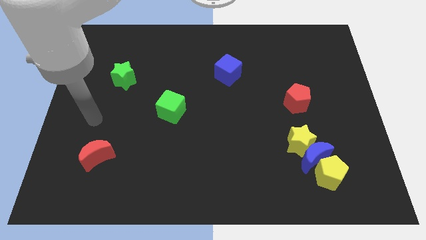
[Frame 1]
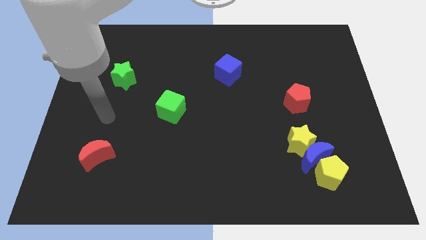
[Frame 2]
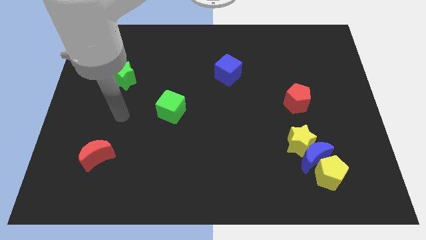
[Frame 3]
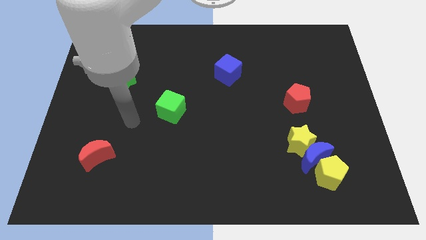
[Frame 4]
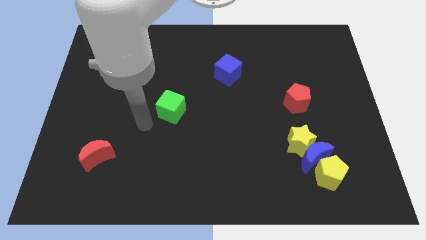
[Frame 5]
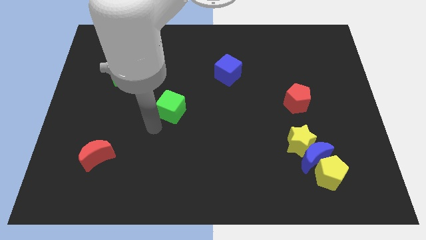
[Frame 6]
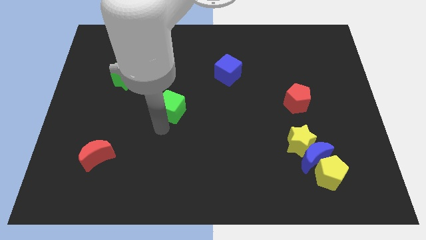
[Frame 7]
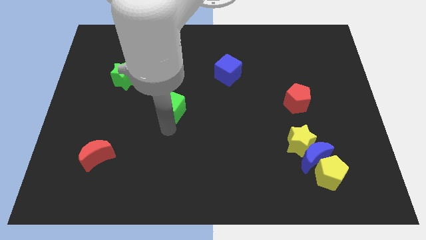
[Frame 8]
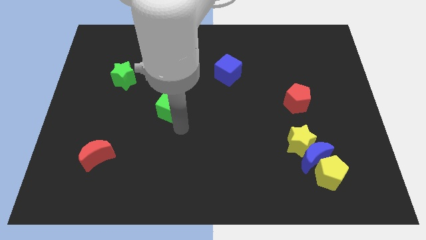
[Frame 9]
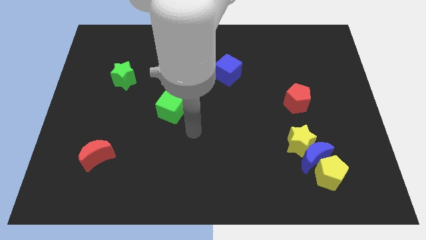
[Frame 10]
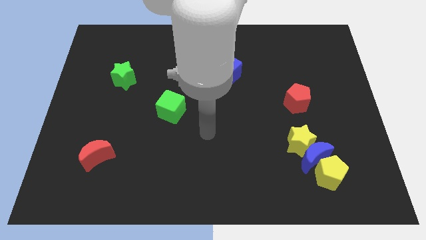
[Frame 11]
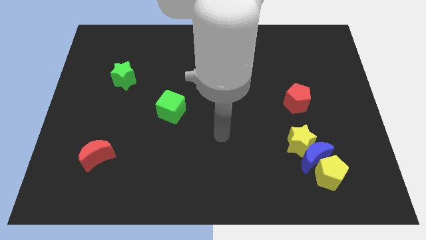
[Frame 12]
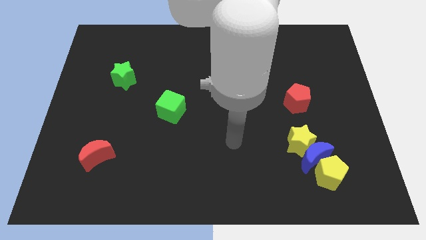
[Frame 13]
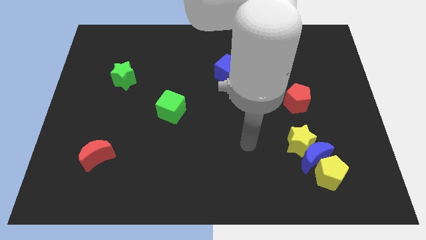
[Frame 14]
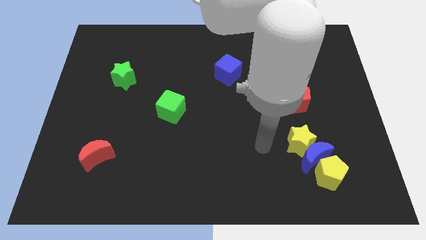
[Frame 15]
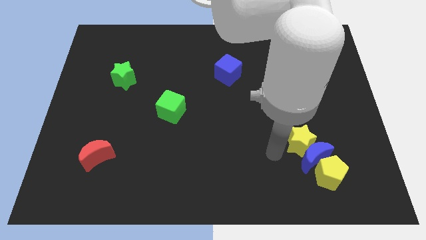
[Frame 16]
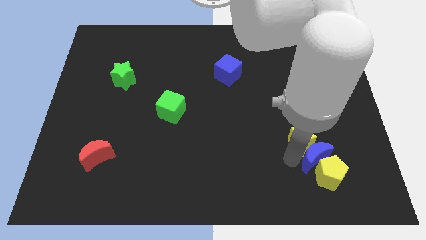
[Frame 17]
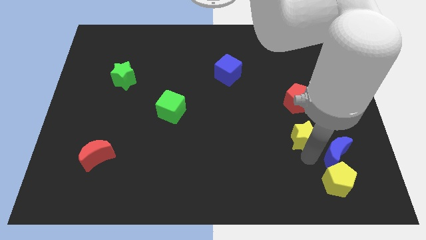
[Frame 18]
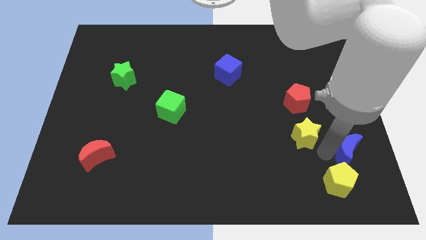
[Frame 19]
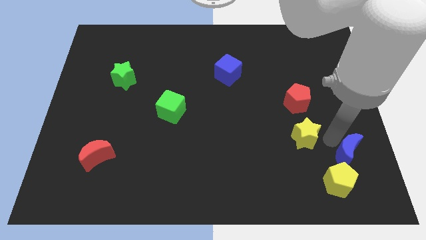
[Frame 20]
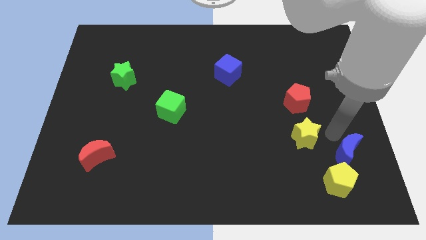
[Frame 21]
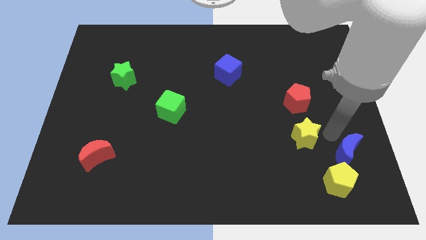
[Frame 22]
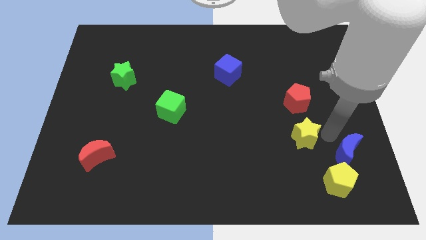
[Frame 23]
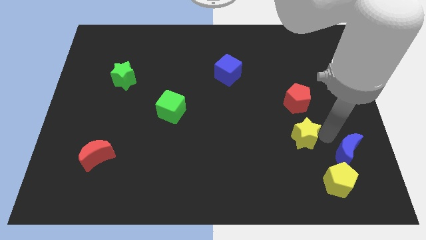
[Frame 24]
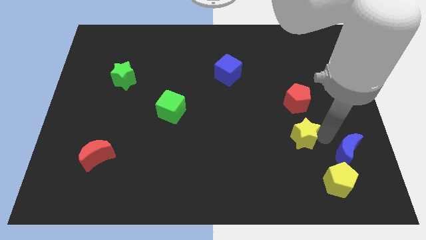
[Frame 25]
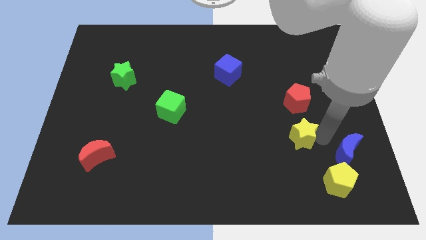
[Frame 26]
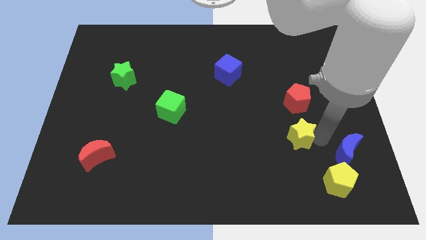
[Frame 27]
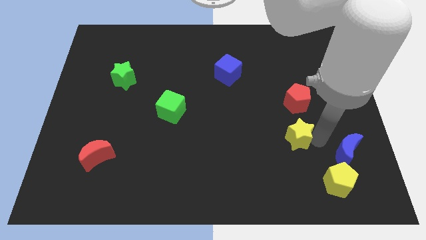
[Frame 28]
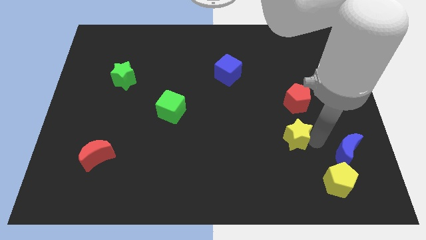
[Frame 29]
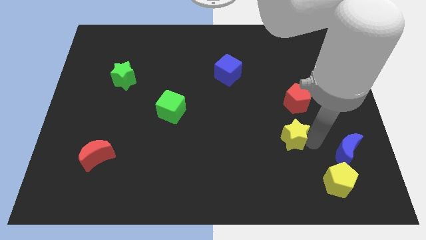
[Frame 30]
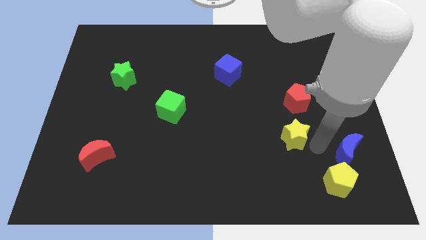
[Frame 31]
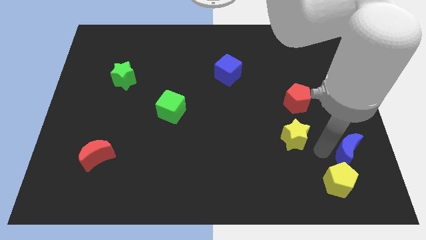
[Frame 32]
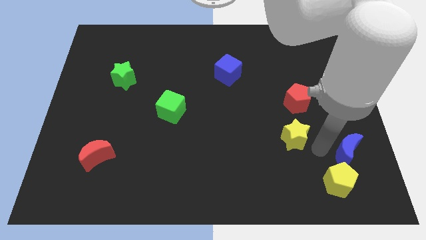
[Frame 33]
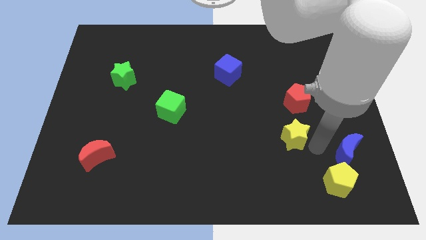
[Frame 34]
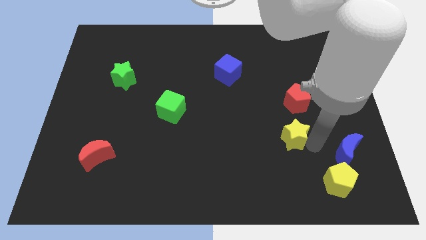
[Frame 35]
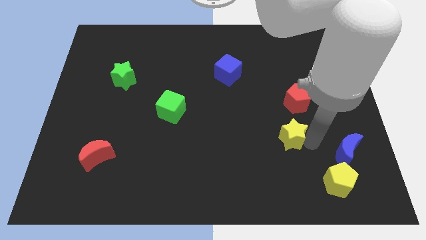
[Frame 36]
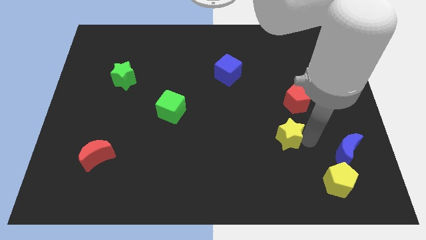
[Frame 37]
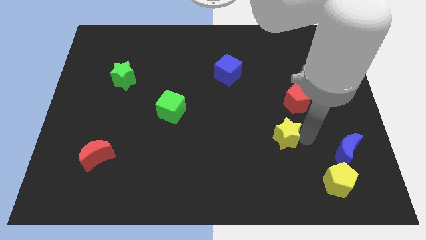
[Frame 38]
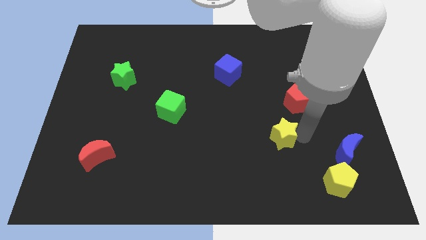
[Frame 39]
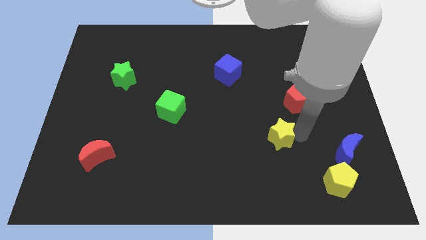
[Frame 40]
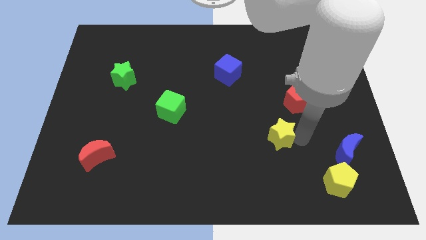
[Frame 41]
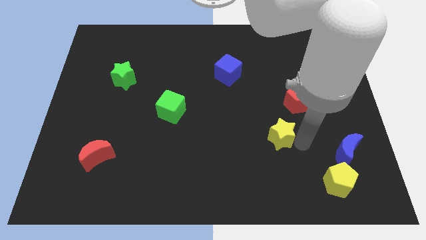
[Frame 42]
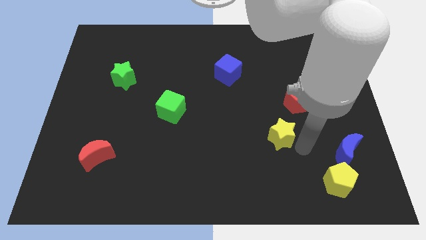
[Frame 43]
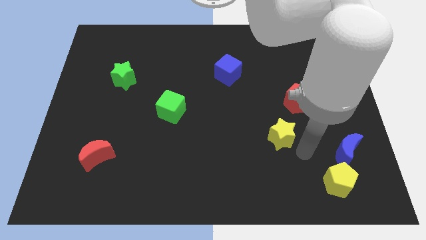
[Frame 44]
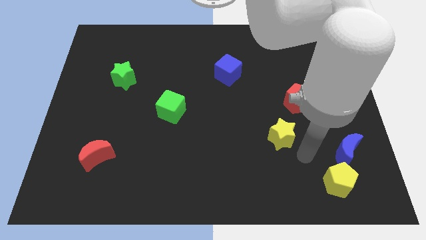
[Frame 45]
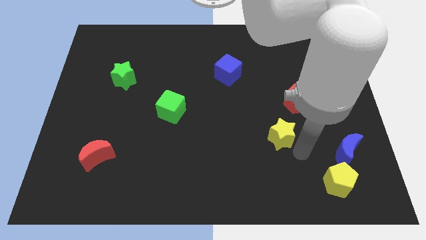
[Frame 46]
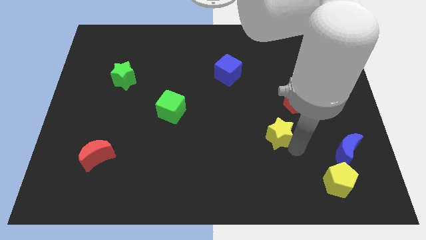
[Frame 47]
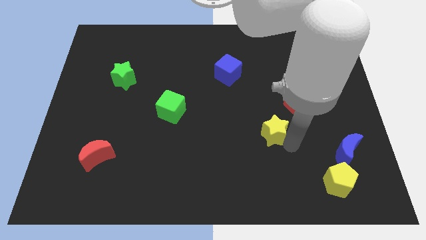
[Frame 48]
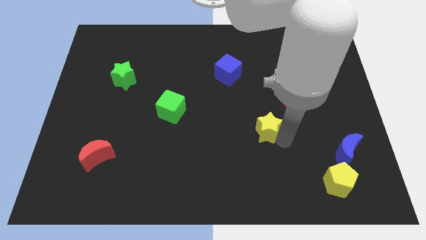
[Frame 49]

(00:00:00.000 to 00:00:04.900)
slide the yellow star upwards and left diagonally somewhat

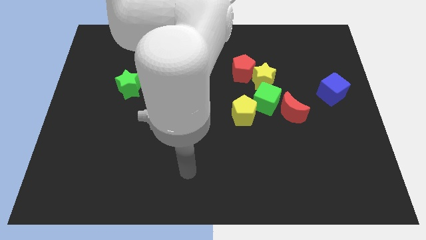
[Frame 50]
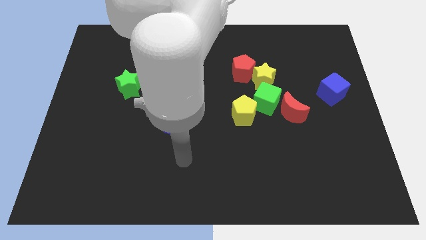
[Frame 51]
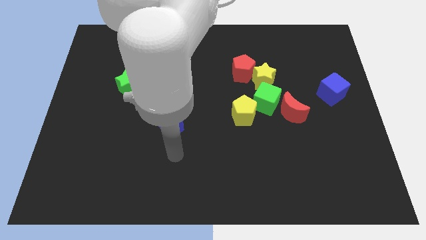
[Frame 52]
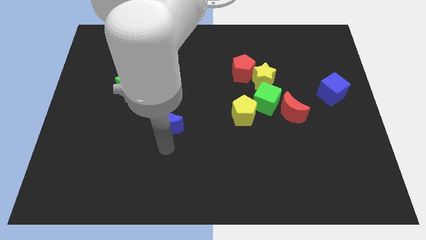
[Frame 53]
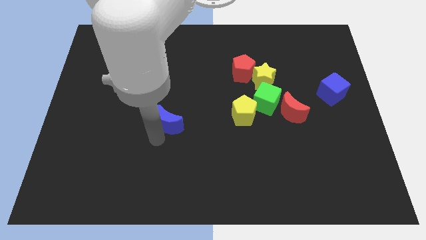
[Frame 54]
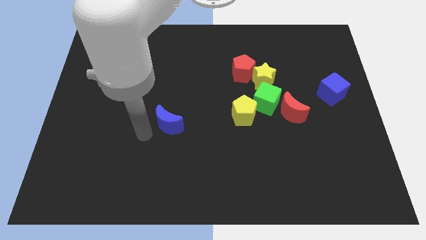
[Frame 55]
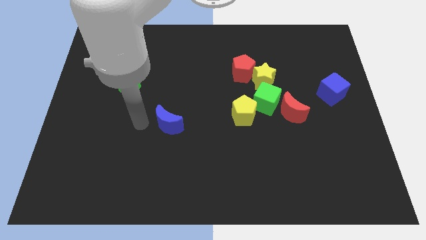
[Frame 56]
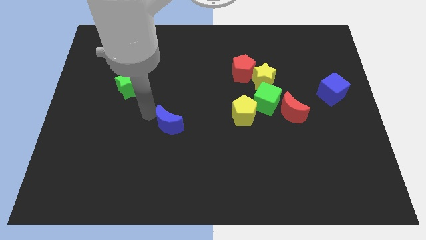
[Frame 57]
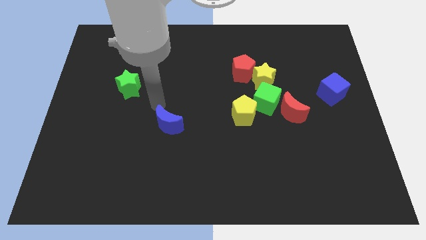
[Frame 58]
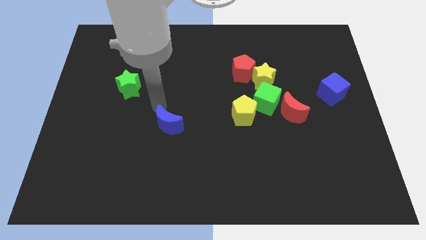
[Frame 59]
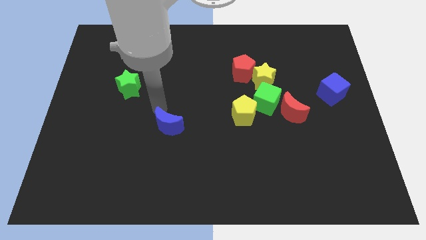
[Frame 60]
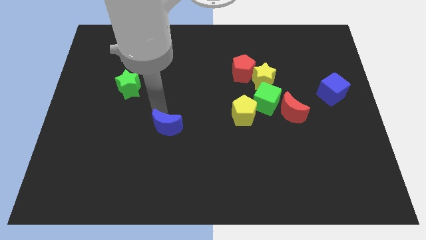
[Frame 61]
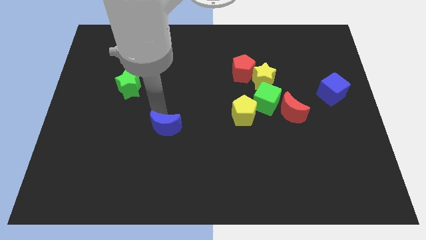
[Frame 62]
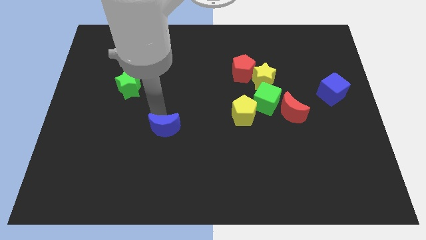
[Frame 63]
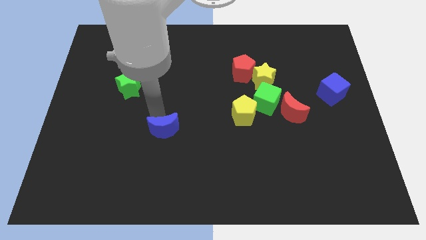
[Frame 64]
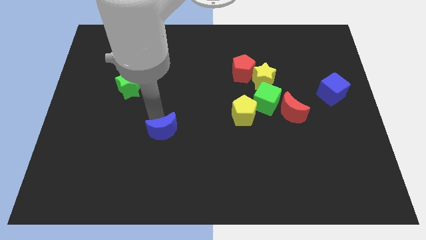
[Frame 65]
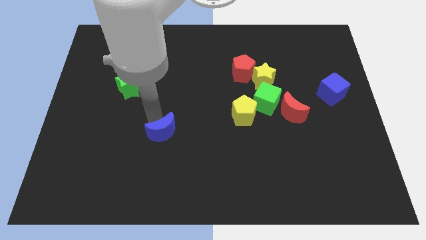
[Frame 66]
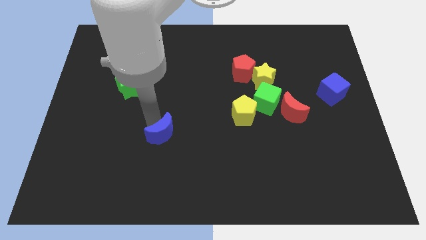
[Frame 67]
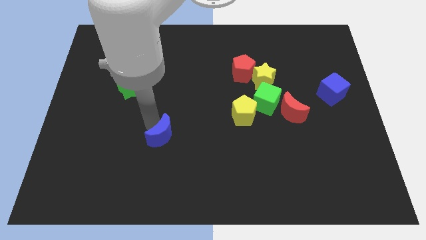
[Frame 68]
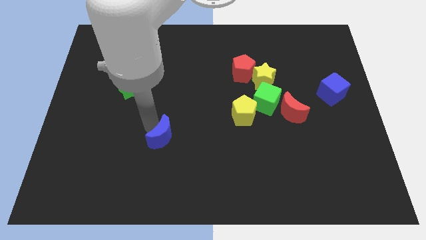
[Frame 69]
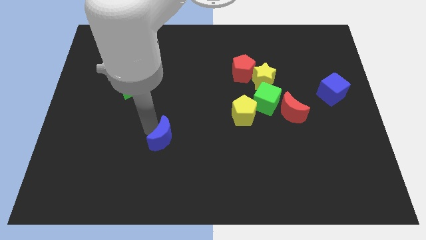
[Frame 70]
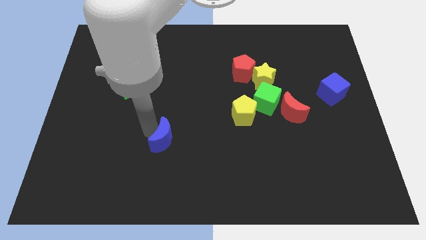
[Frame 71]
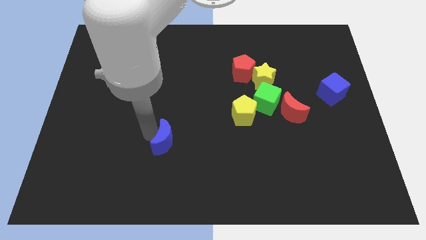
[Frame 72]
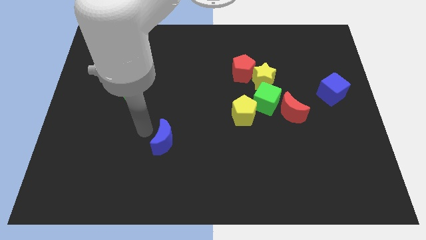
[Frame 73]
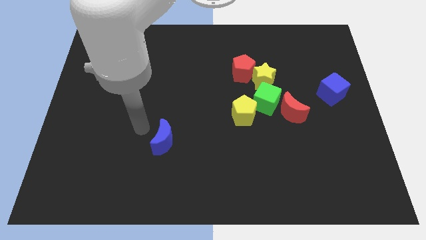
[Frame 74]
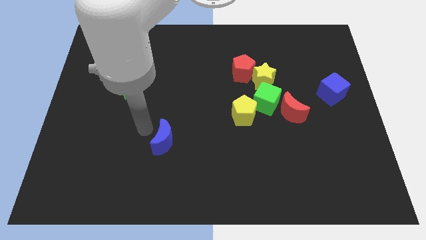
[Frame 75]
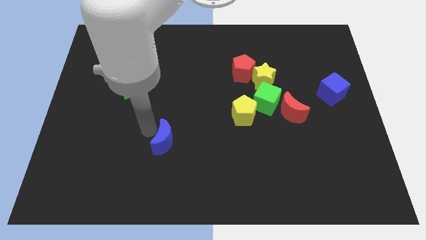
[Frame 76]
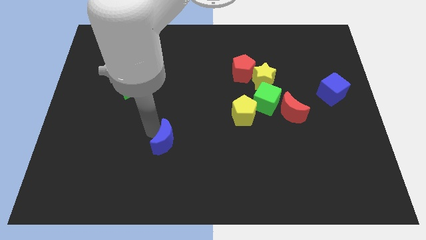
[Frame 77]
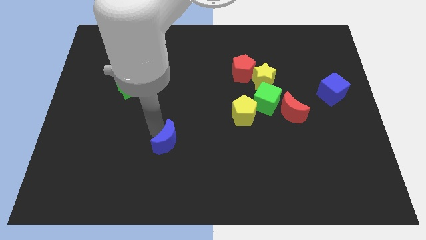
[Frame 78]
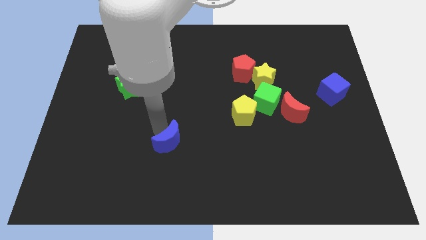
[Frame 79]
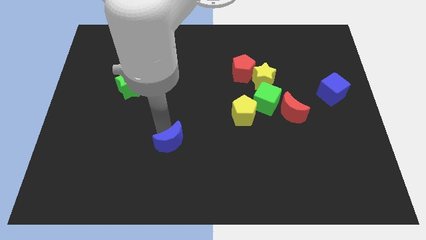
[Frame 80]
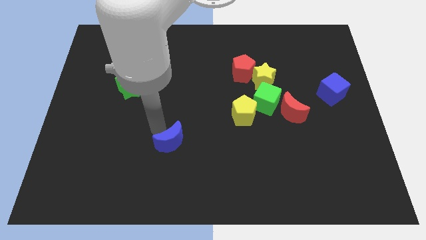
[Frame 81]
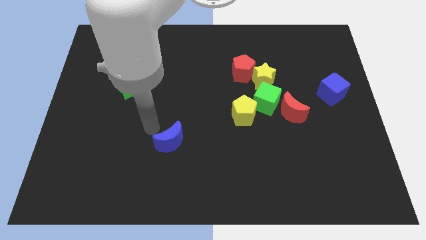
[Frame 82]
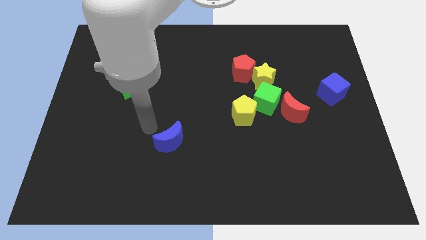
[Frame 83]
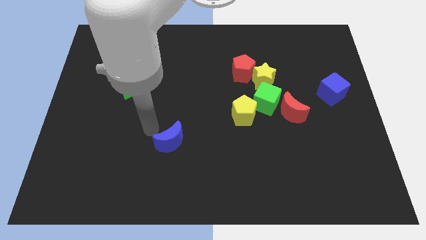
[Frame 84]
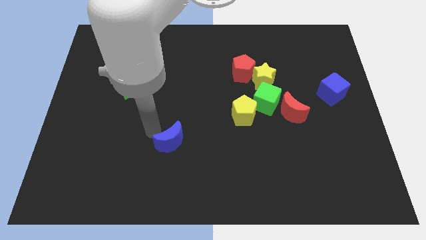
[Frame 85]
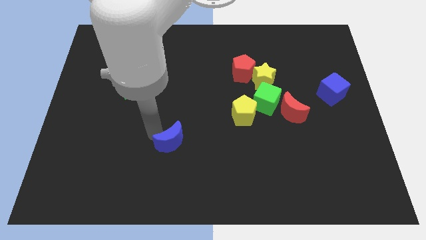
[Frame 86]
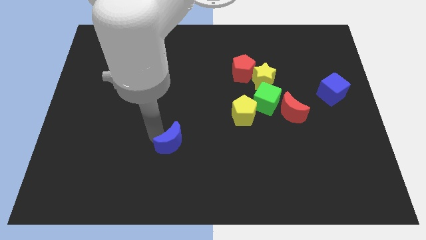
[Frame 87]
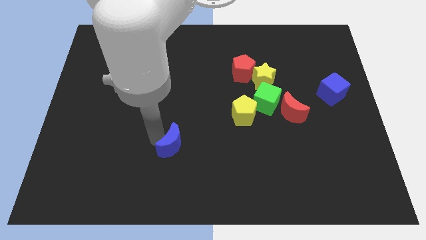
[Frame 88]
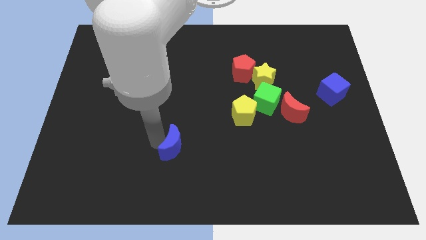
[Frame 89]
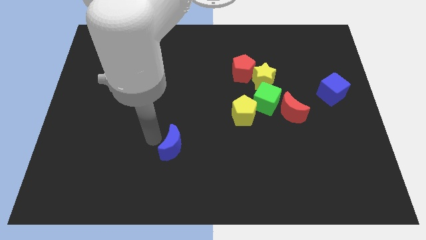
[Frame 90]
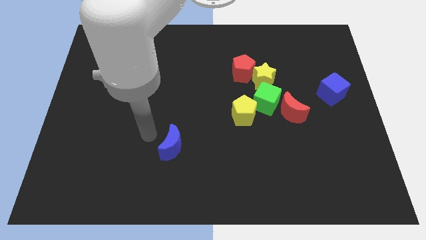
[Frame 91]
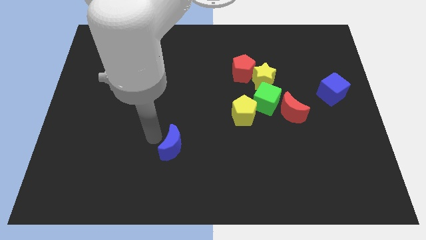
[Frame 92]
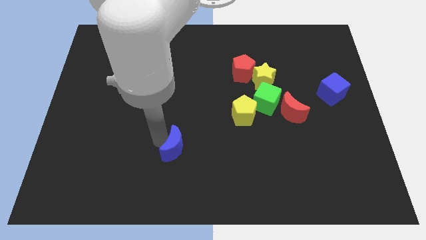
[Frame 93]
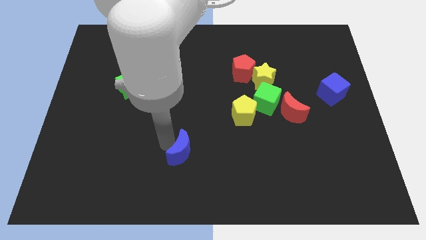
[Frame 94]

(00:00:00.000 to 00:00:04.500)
push the blue moon diagonally down and to the right a bit
